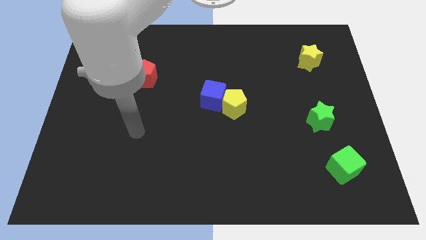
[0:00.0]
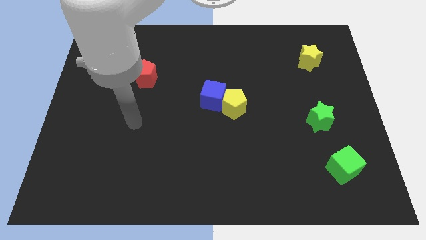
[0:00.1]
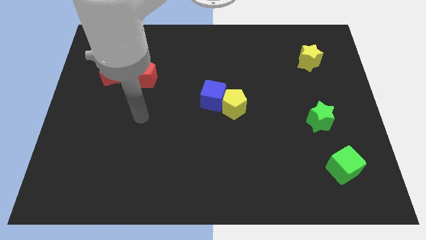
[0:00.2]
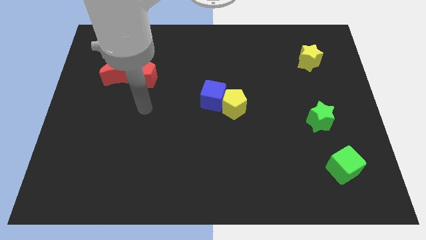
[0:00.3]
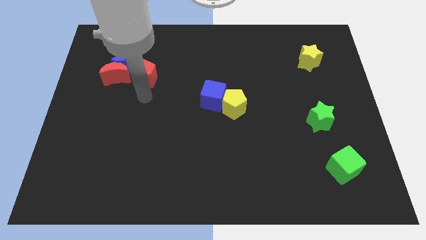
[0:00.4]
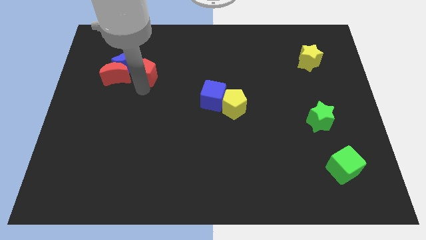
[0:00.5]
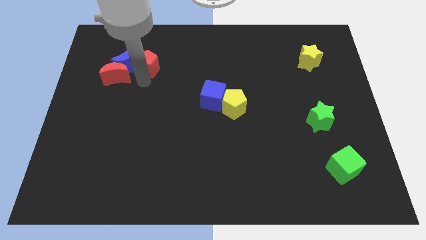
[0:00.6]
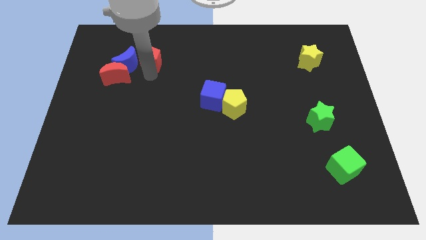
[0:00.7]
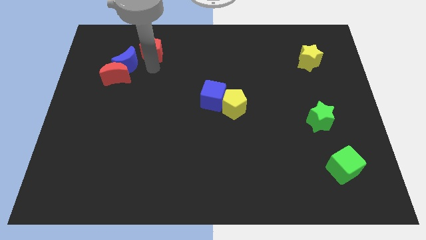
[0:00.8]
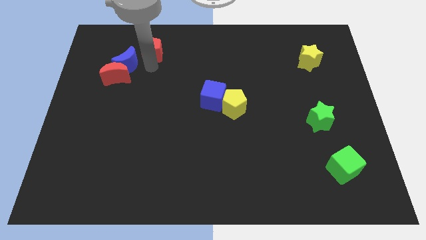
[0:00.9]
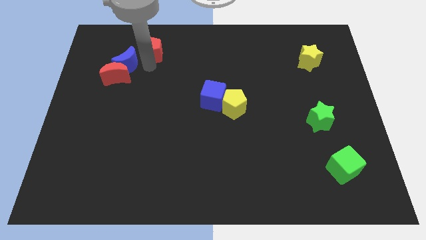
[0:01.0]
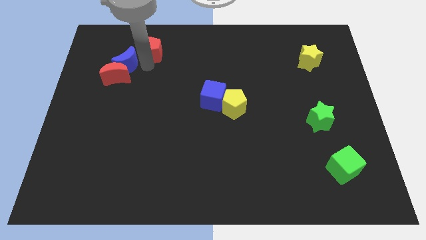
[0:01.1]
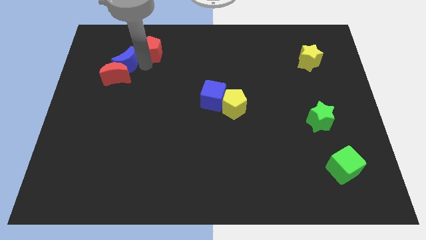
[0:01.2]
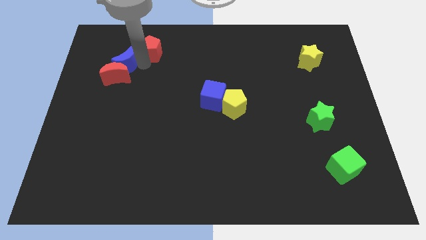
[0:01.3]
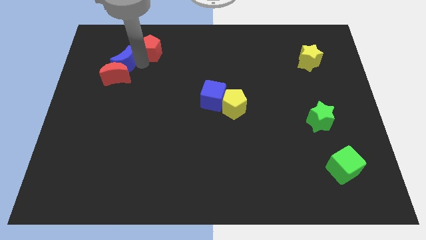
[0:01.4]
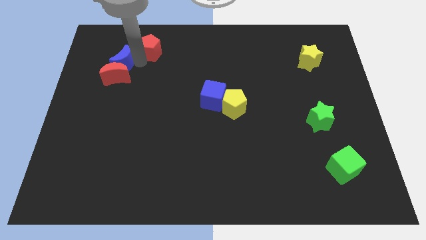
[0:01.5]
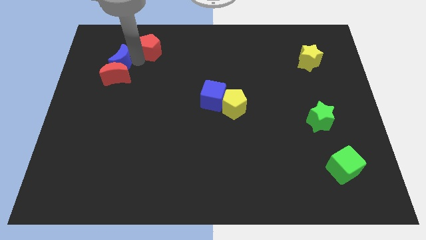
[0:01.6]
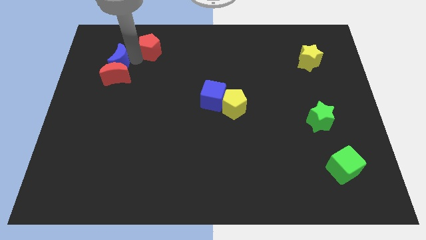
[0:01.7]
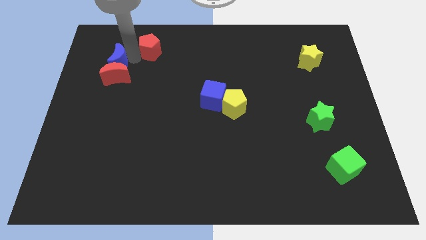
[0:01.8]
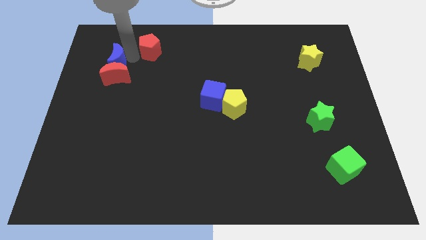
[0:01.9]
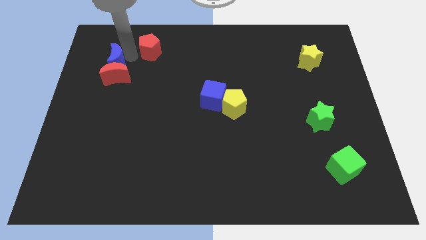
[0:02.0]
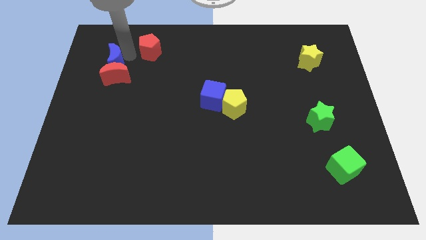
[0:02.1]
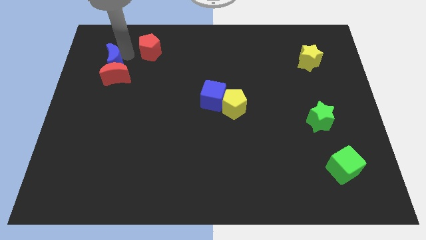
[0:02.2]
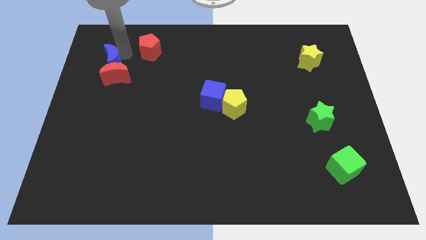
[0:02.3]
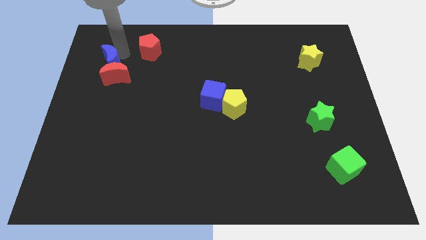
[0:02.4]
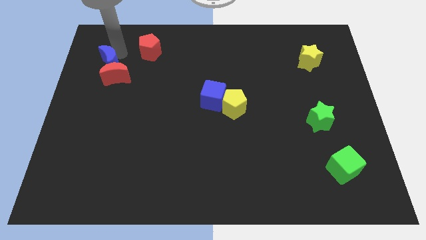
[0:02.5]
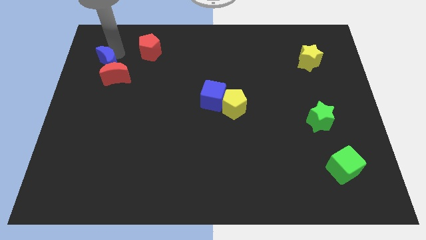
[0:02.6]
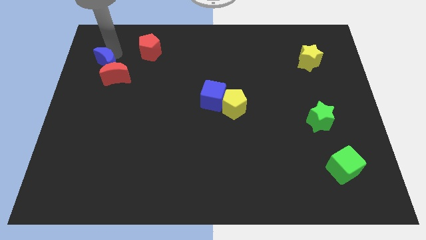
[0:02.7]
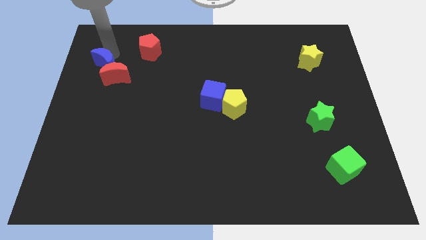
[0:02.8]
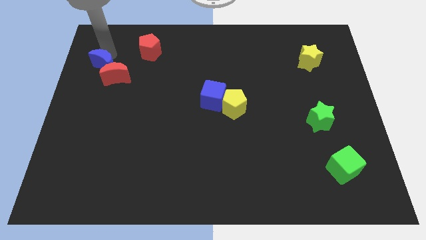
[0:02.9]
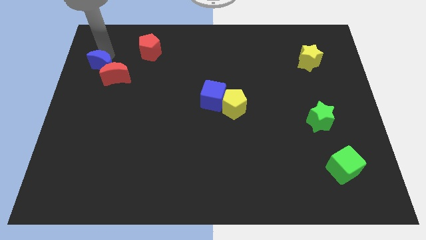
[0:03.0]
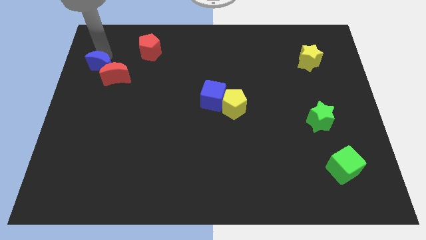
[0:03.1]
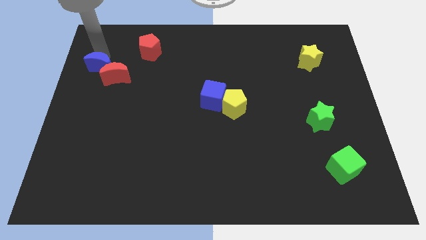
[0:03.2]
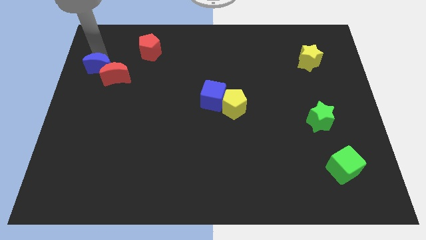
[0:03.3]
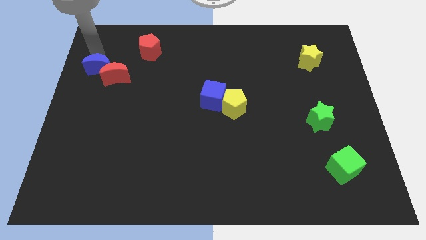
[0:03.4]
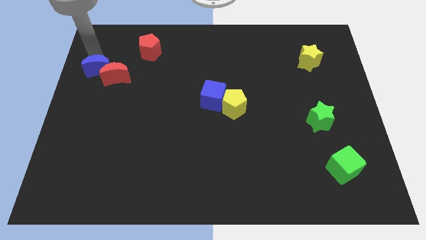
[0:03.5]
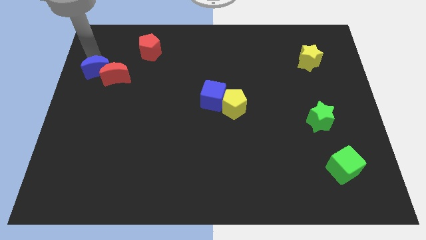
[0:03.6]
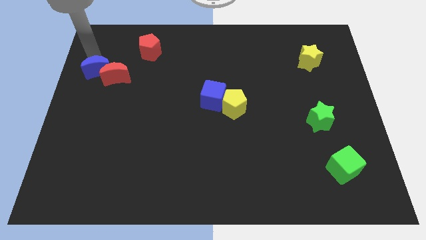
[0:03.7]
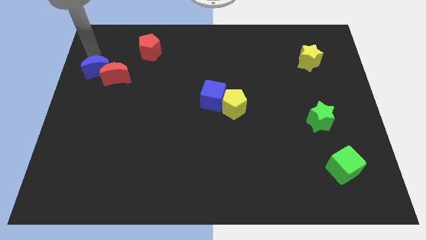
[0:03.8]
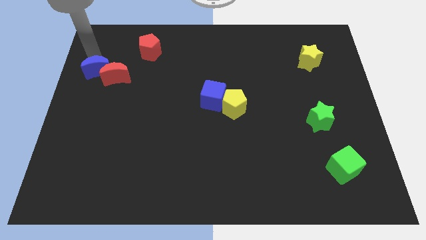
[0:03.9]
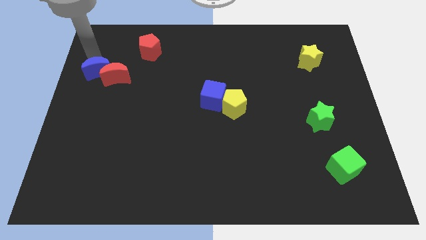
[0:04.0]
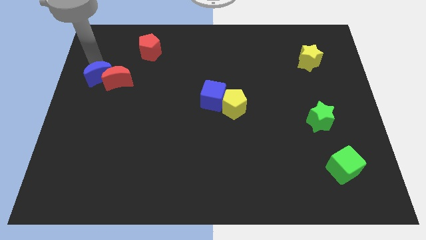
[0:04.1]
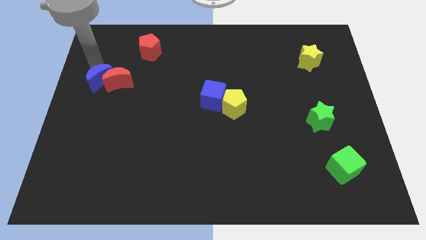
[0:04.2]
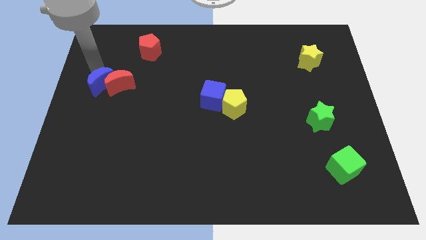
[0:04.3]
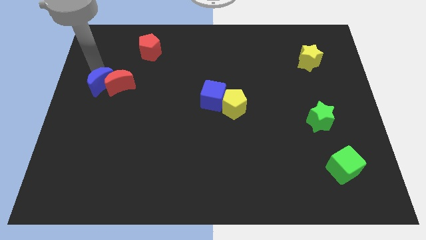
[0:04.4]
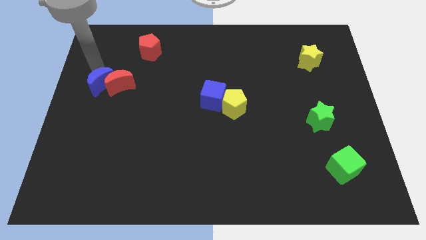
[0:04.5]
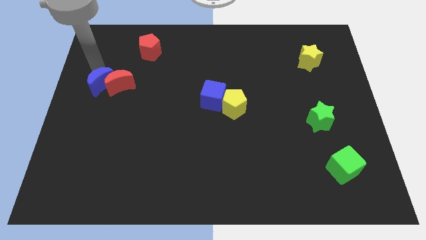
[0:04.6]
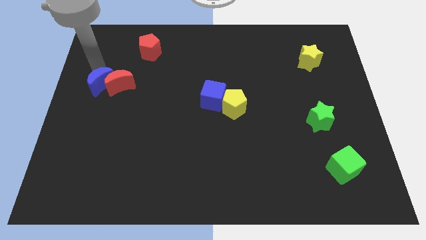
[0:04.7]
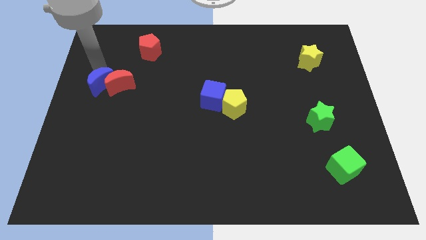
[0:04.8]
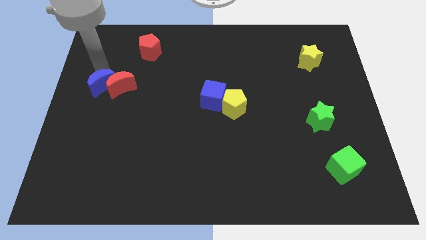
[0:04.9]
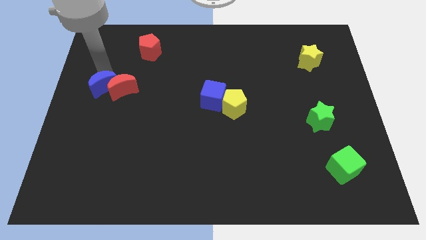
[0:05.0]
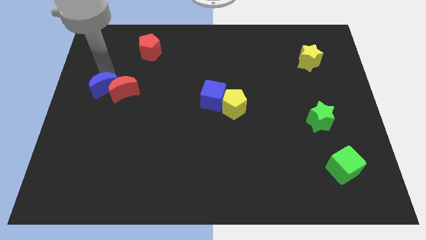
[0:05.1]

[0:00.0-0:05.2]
move the blue moon down a little bit

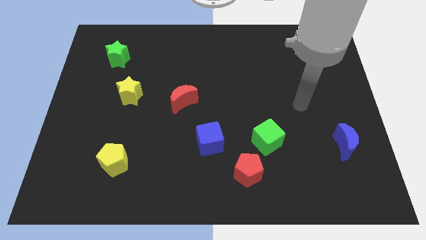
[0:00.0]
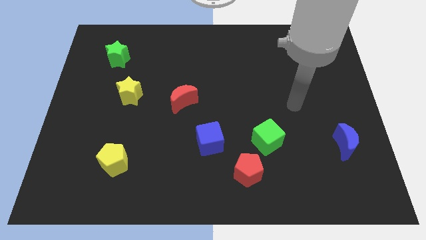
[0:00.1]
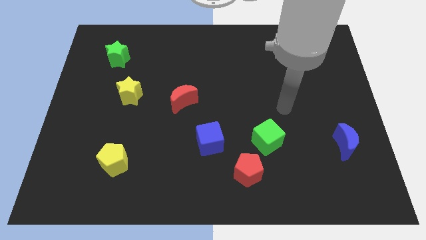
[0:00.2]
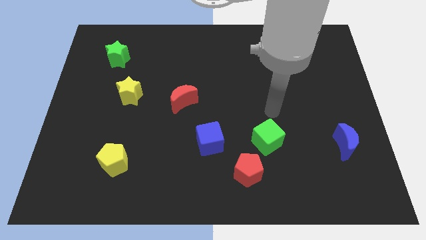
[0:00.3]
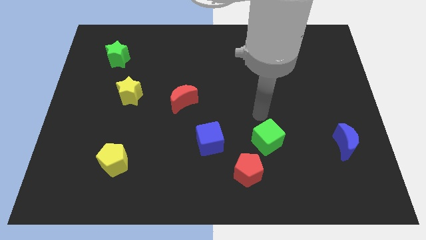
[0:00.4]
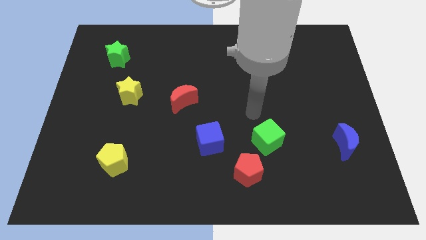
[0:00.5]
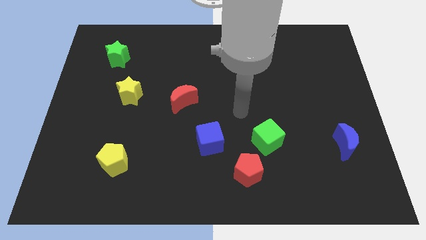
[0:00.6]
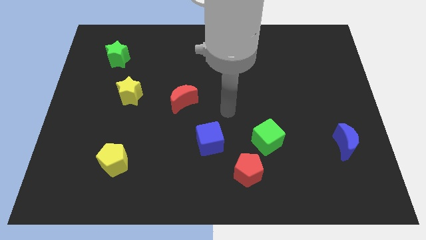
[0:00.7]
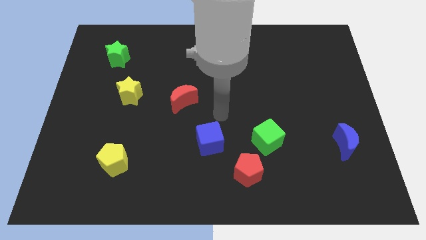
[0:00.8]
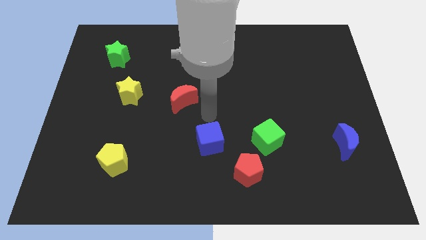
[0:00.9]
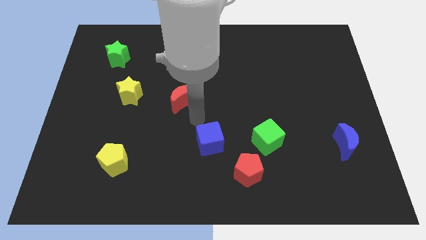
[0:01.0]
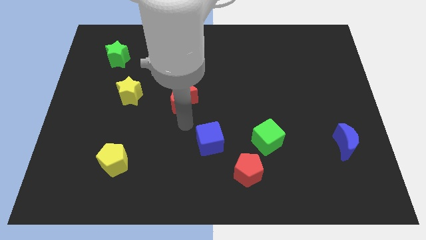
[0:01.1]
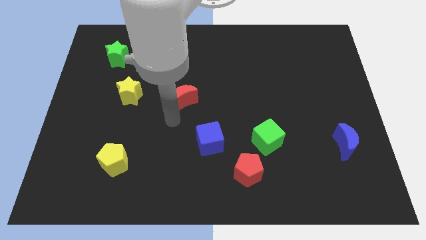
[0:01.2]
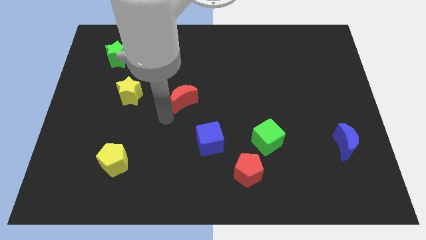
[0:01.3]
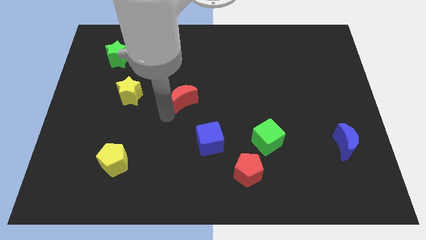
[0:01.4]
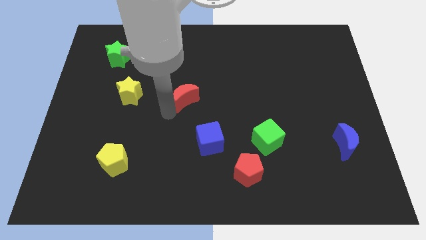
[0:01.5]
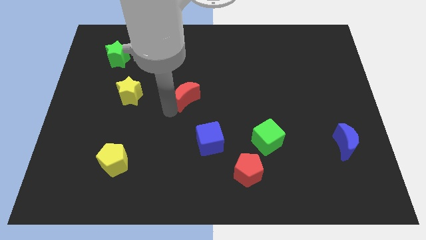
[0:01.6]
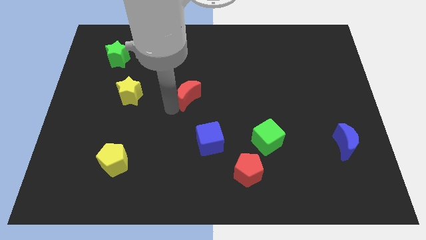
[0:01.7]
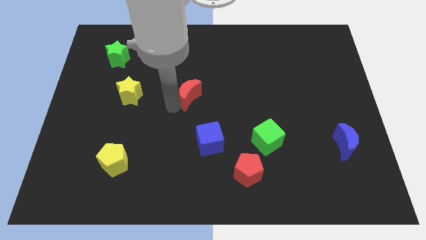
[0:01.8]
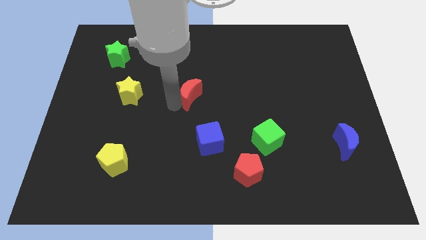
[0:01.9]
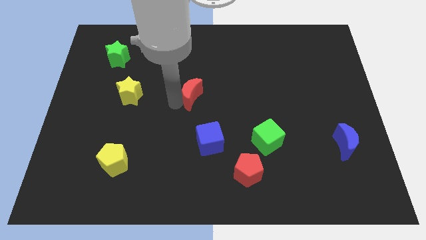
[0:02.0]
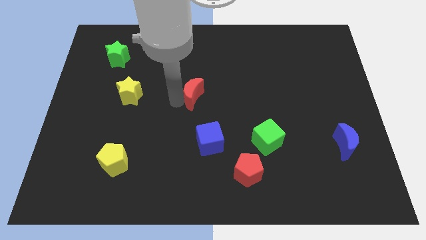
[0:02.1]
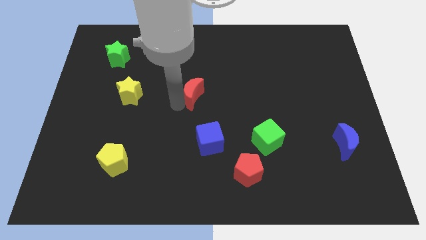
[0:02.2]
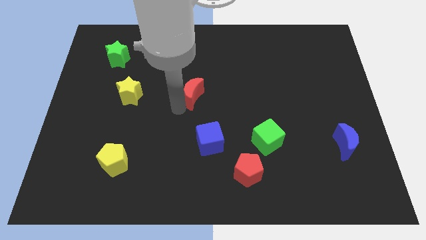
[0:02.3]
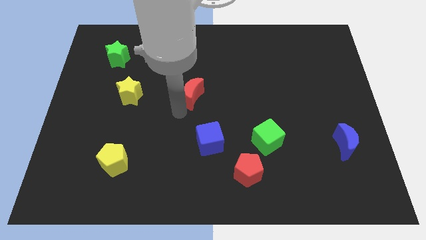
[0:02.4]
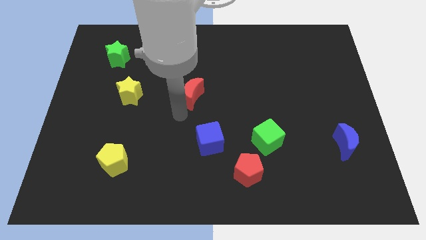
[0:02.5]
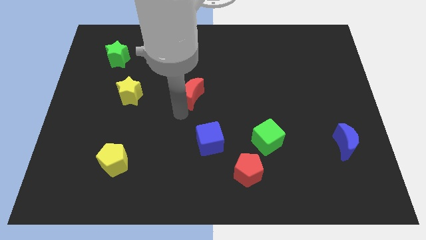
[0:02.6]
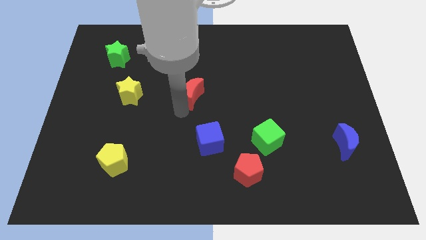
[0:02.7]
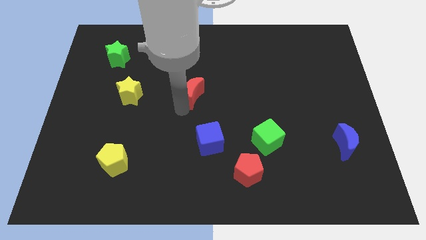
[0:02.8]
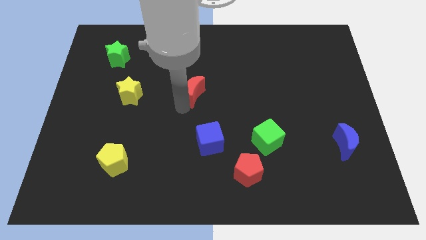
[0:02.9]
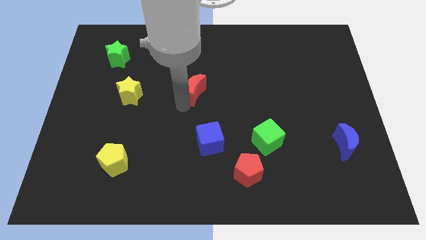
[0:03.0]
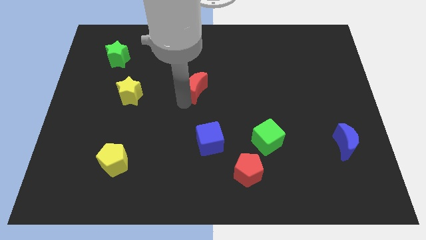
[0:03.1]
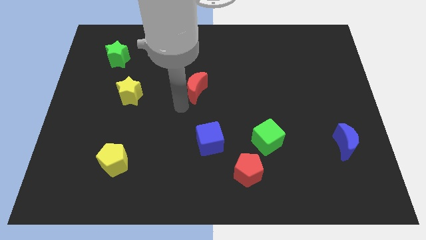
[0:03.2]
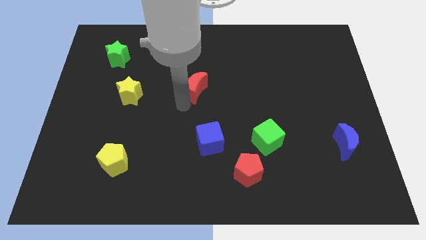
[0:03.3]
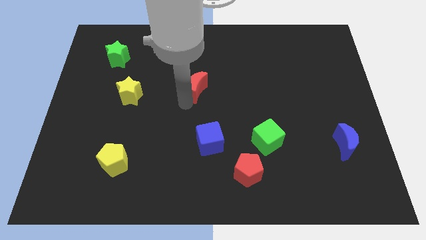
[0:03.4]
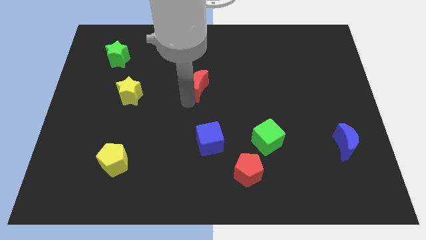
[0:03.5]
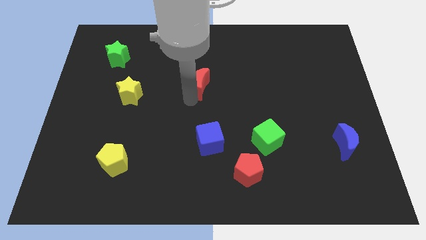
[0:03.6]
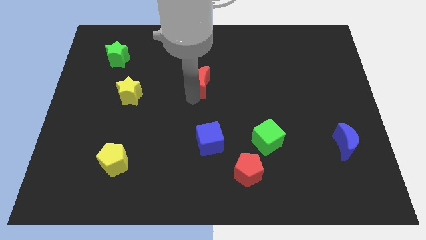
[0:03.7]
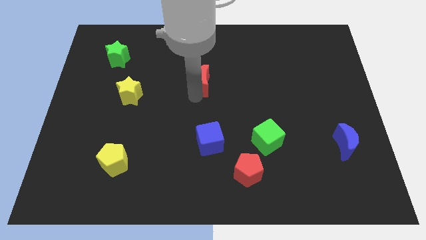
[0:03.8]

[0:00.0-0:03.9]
push the red moon upwards and right somewhat
